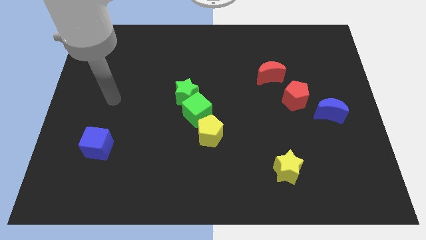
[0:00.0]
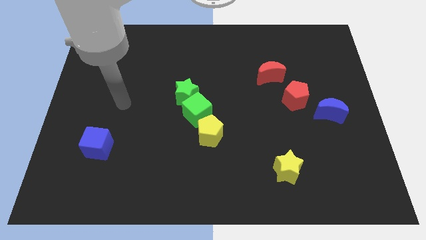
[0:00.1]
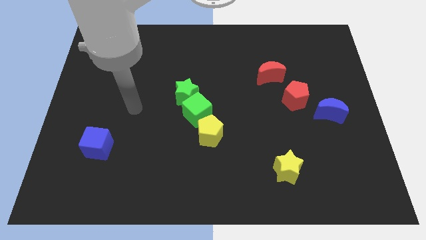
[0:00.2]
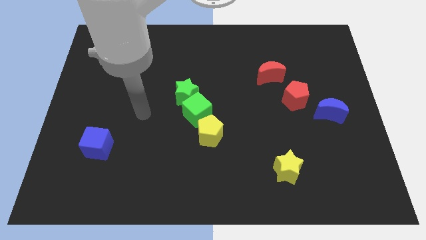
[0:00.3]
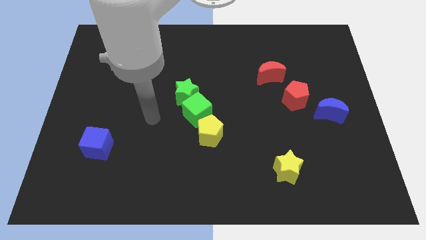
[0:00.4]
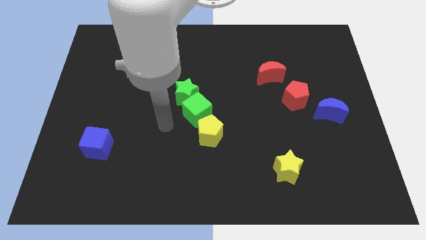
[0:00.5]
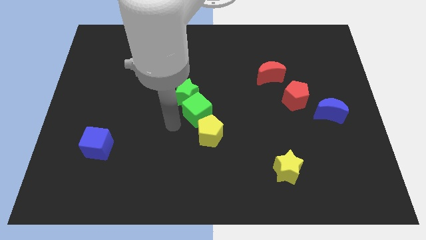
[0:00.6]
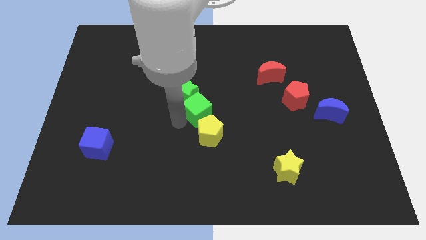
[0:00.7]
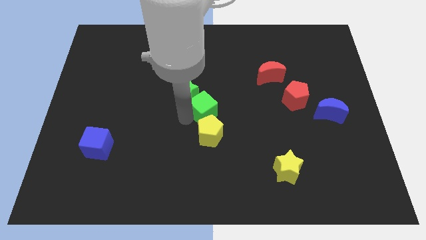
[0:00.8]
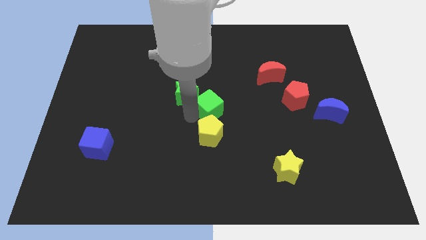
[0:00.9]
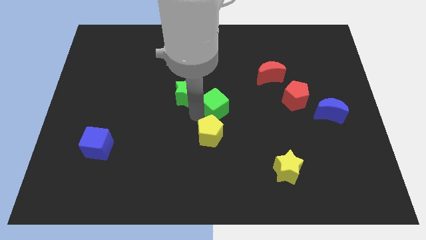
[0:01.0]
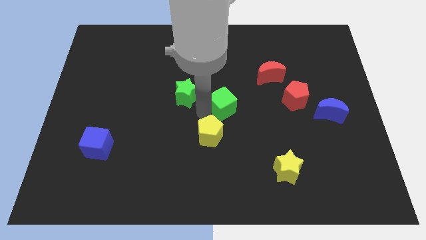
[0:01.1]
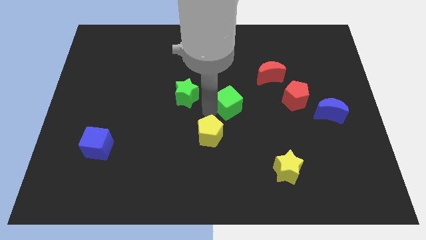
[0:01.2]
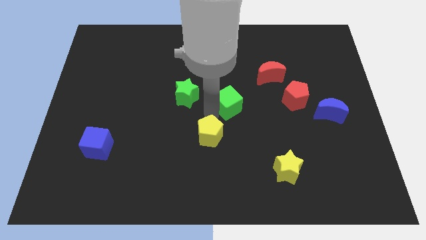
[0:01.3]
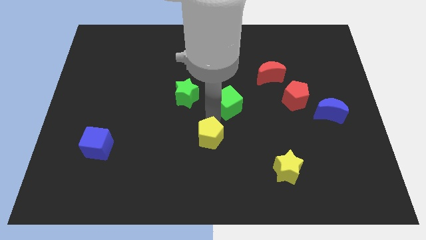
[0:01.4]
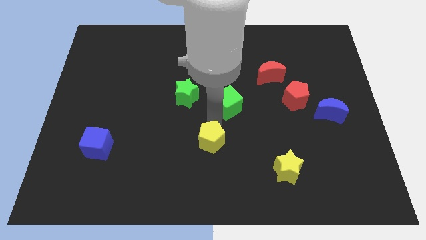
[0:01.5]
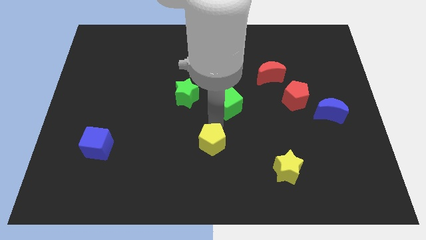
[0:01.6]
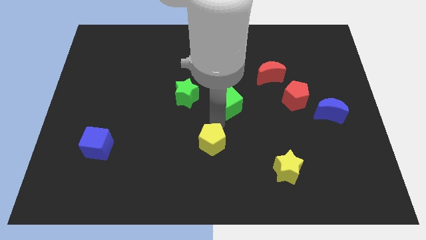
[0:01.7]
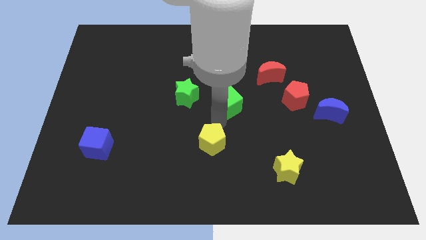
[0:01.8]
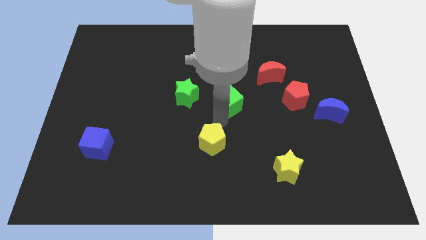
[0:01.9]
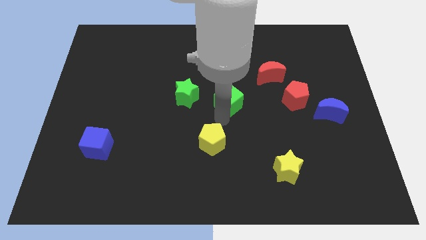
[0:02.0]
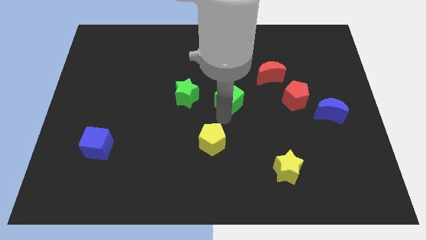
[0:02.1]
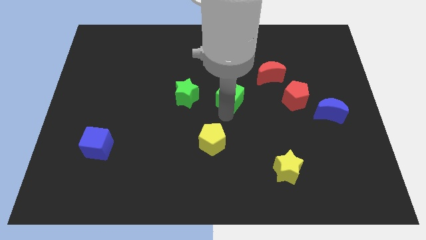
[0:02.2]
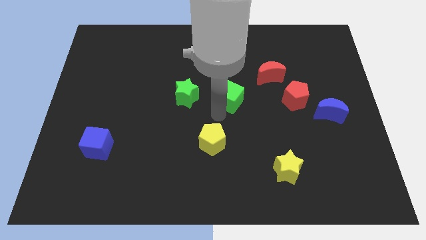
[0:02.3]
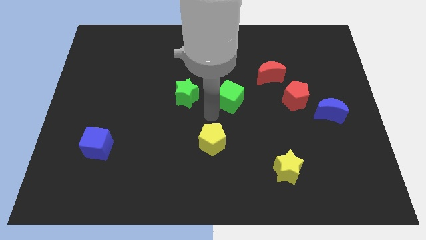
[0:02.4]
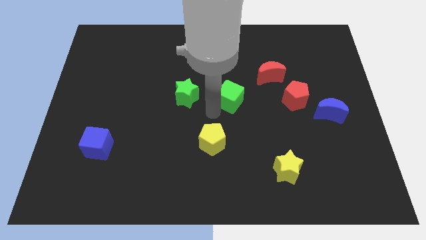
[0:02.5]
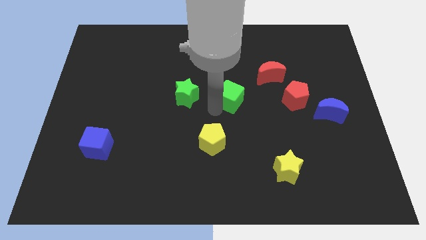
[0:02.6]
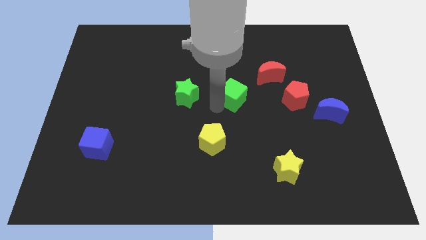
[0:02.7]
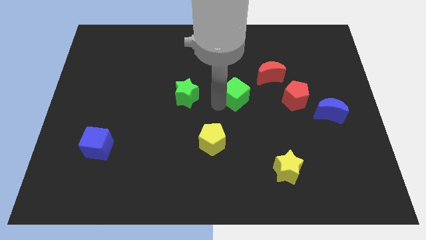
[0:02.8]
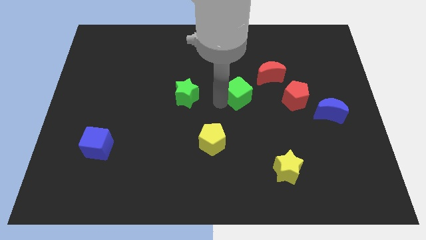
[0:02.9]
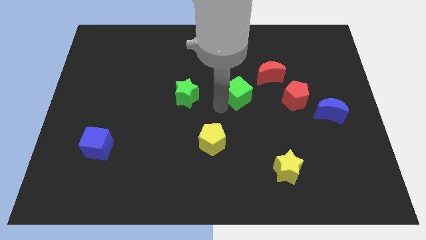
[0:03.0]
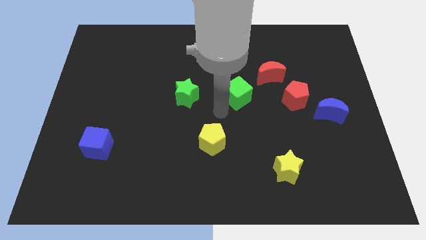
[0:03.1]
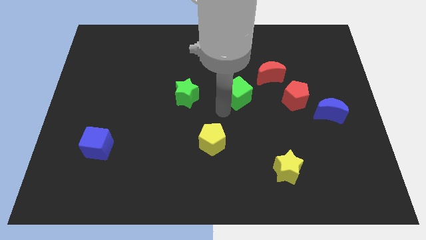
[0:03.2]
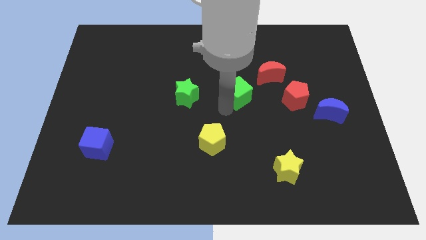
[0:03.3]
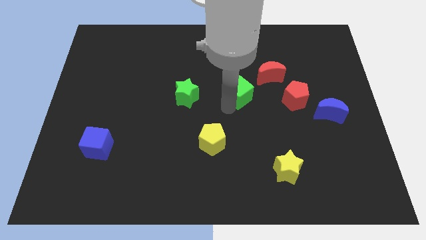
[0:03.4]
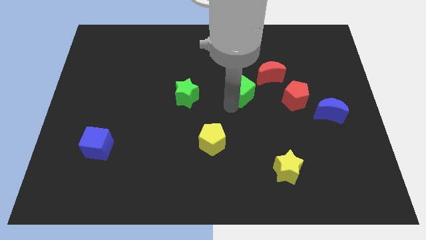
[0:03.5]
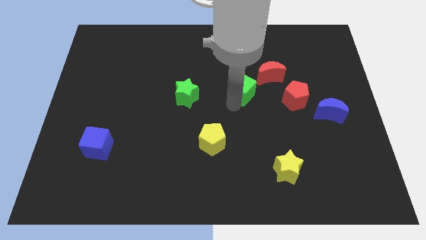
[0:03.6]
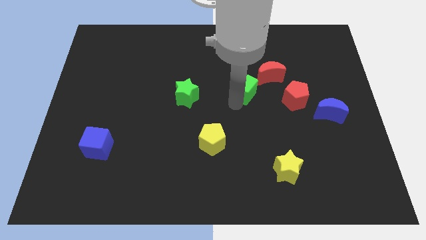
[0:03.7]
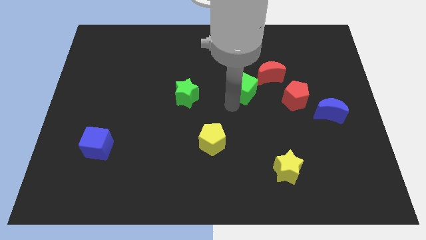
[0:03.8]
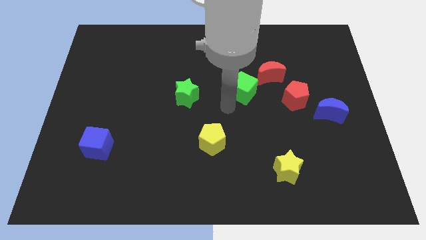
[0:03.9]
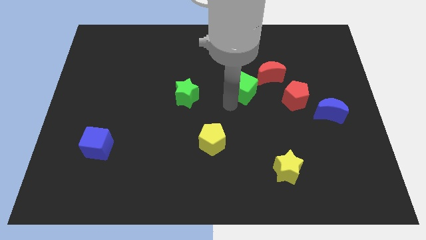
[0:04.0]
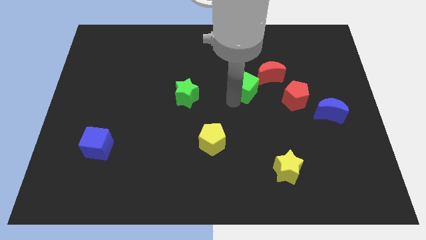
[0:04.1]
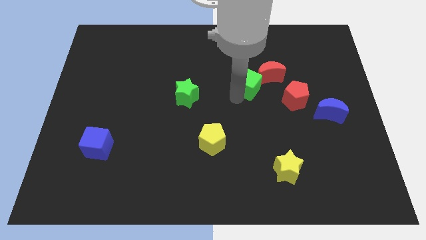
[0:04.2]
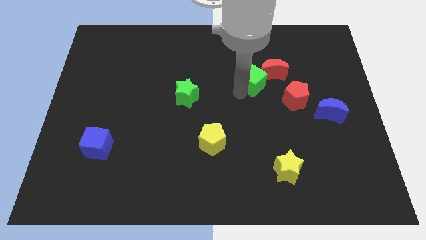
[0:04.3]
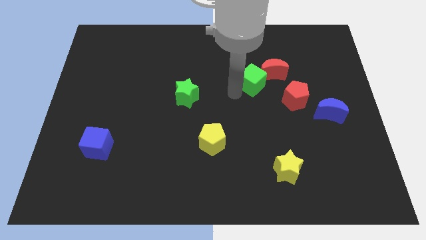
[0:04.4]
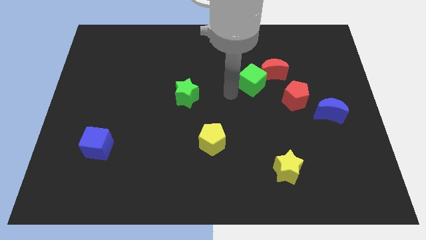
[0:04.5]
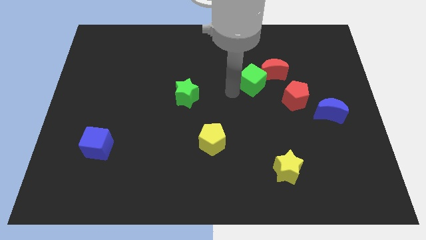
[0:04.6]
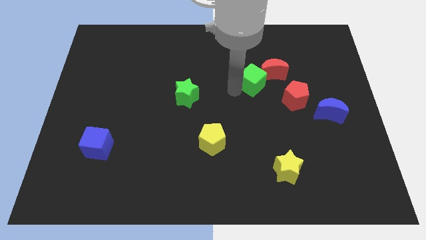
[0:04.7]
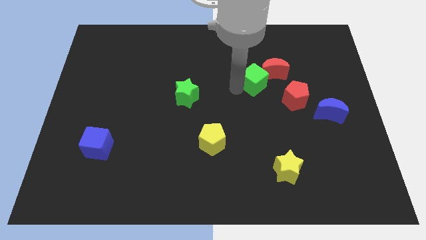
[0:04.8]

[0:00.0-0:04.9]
slide the green cube towards the red moon

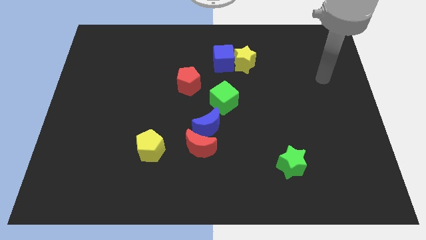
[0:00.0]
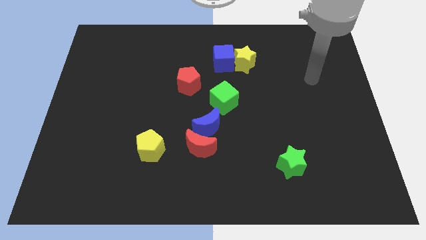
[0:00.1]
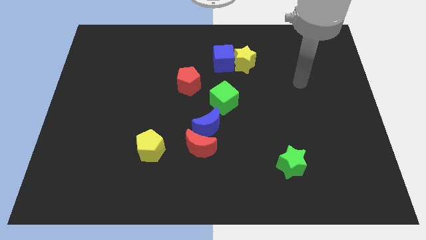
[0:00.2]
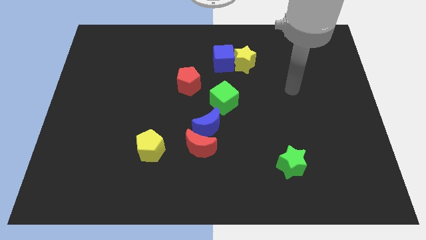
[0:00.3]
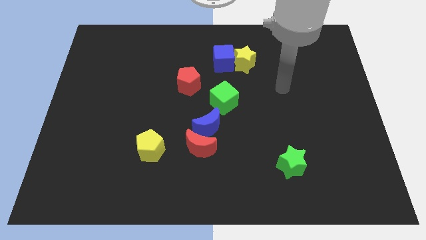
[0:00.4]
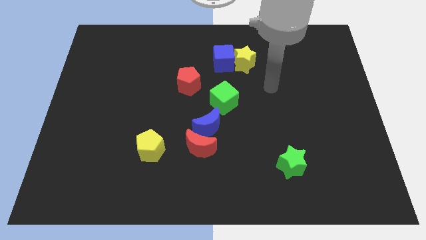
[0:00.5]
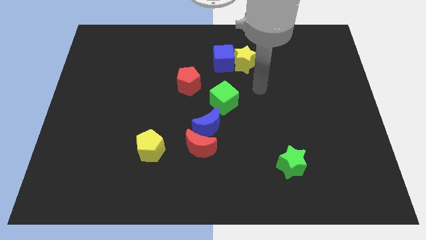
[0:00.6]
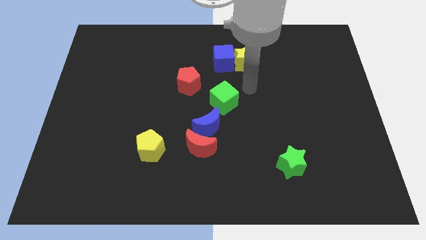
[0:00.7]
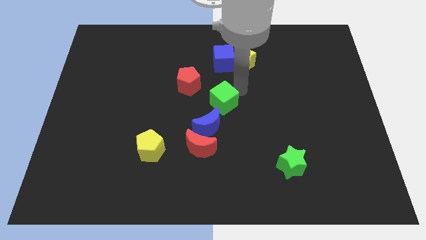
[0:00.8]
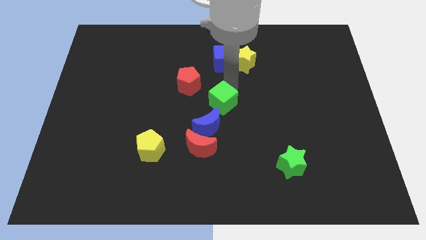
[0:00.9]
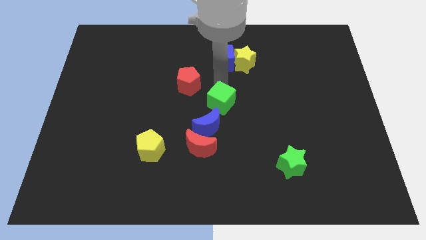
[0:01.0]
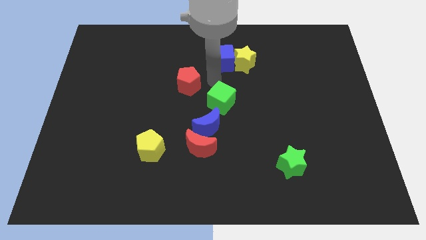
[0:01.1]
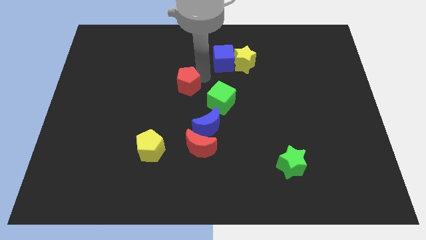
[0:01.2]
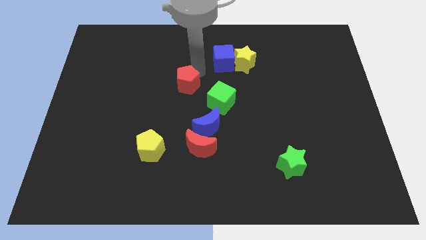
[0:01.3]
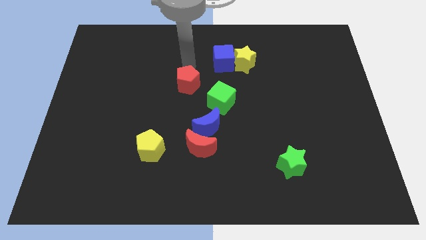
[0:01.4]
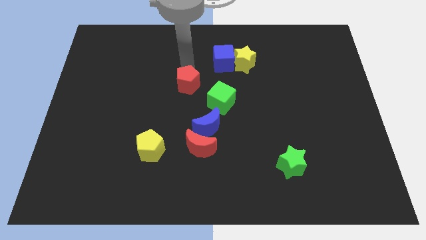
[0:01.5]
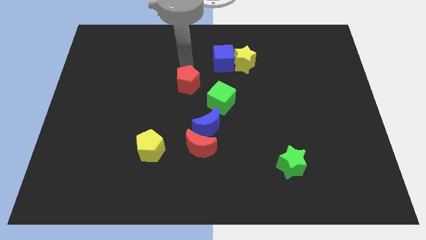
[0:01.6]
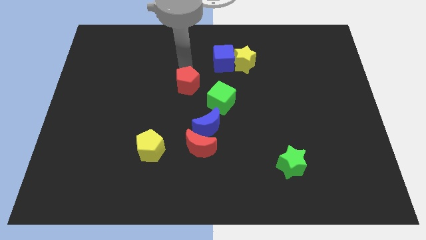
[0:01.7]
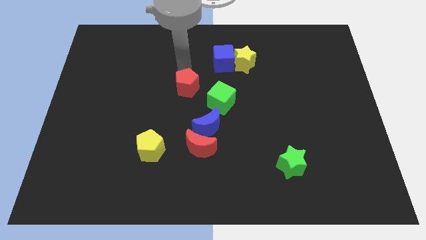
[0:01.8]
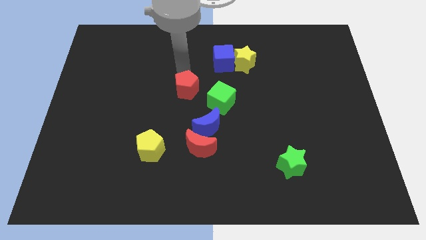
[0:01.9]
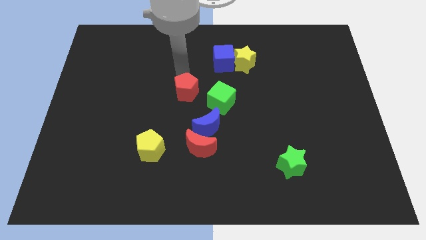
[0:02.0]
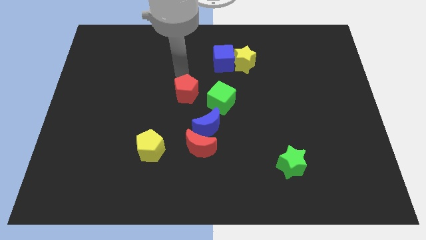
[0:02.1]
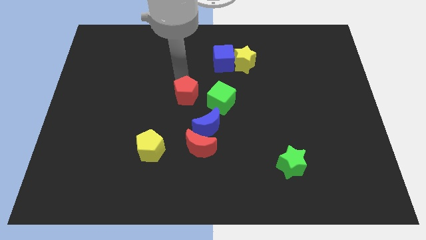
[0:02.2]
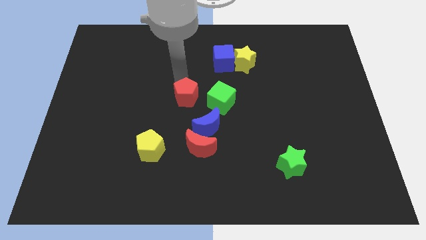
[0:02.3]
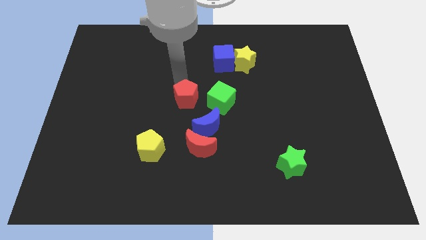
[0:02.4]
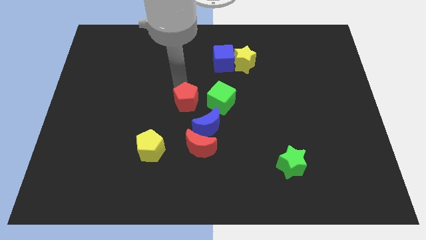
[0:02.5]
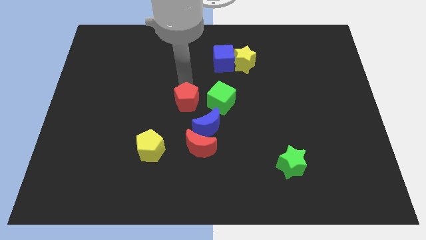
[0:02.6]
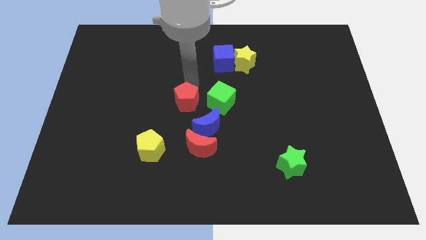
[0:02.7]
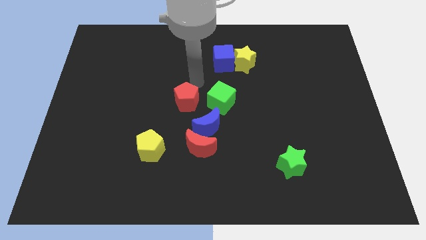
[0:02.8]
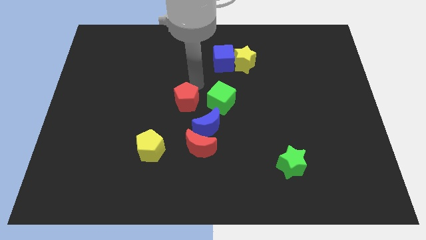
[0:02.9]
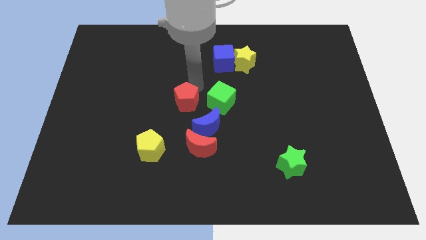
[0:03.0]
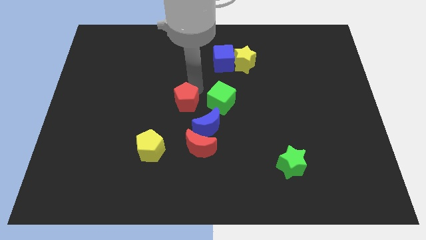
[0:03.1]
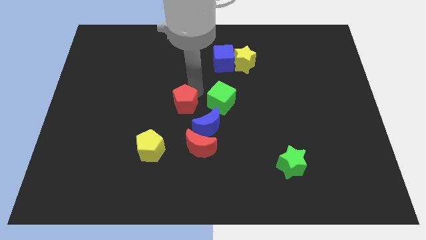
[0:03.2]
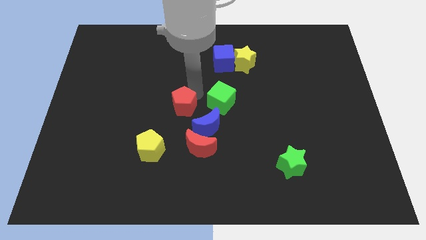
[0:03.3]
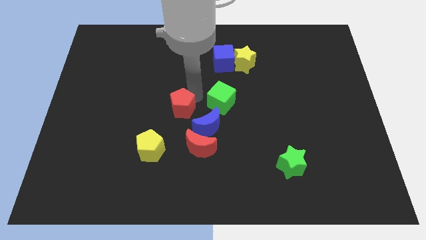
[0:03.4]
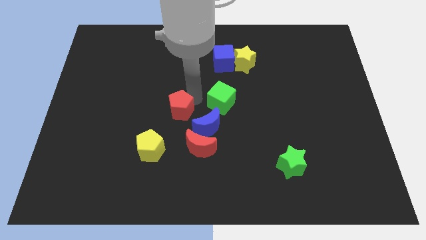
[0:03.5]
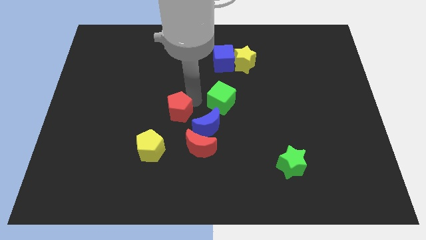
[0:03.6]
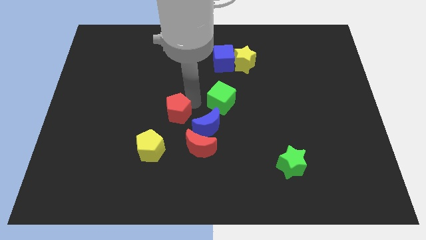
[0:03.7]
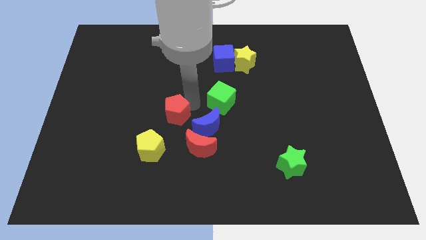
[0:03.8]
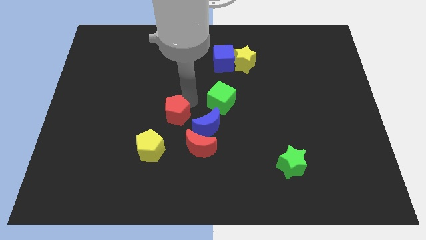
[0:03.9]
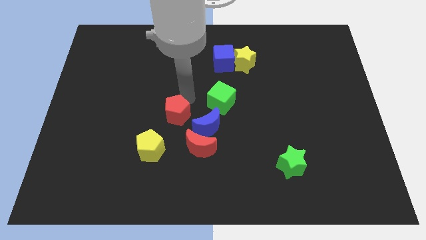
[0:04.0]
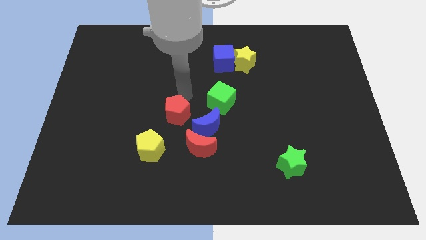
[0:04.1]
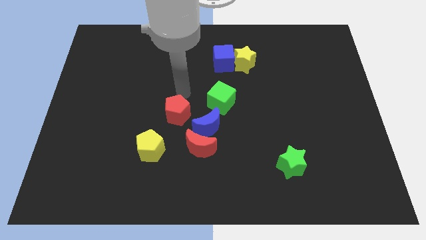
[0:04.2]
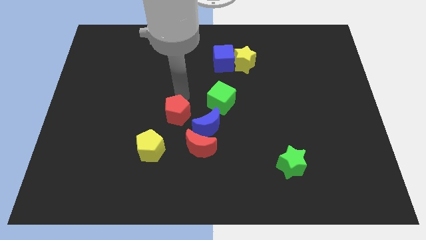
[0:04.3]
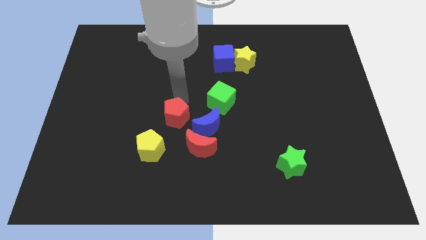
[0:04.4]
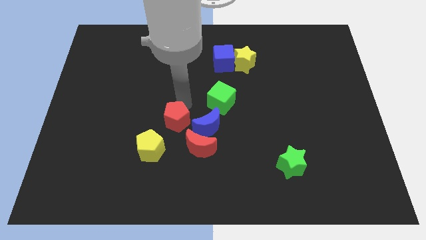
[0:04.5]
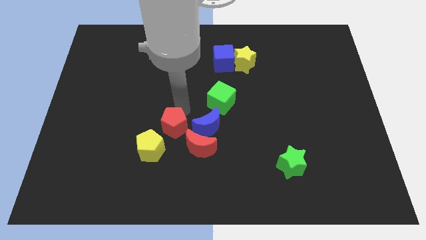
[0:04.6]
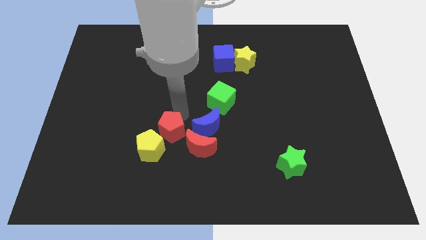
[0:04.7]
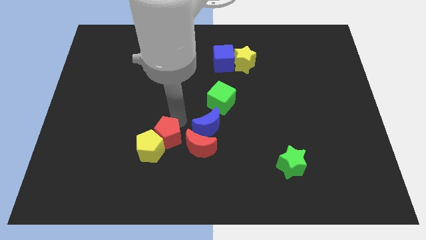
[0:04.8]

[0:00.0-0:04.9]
put the red pentagon close to the yellow pentagon
